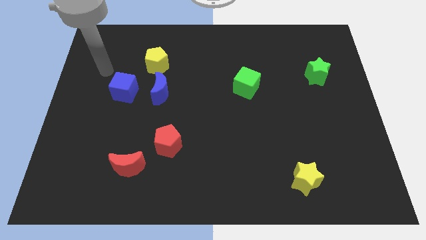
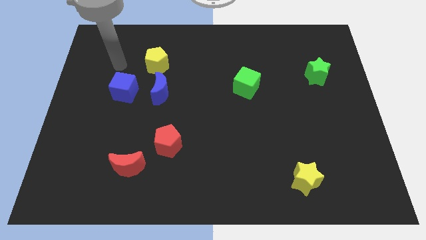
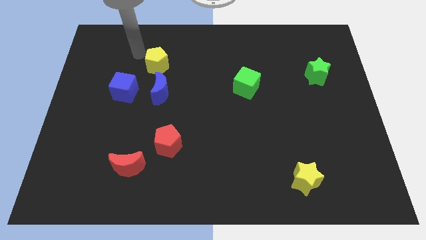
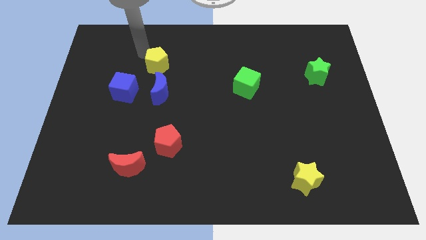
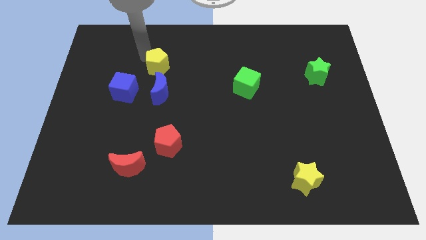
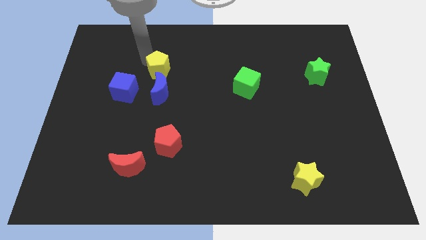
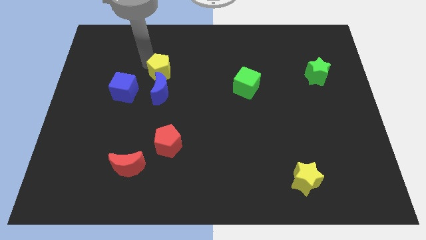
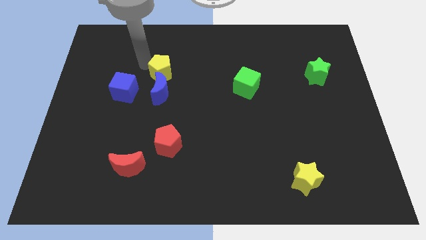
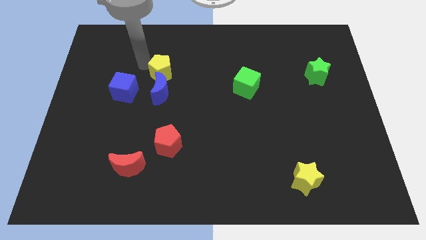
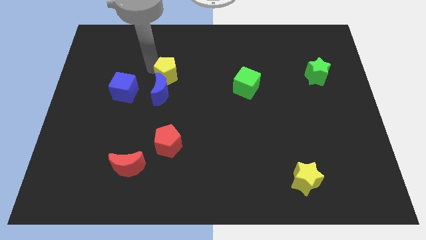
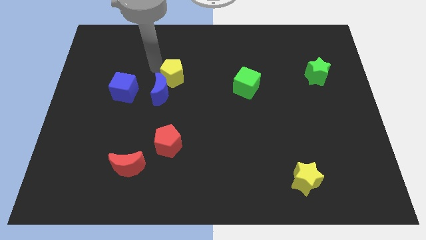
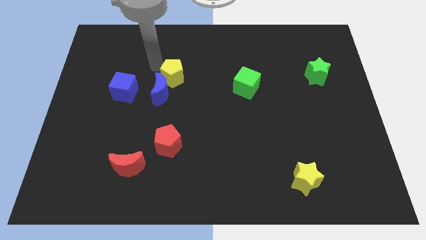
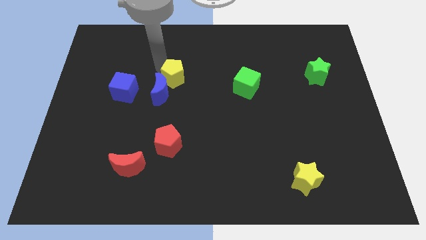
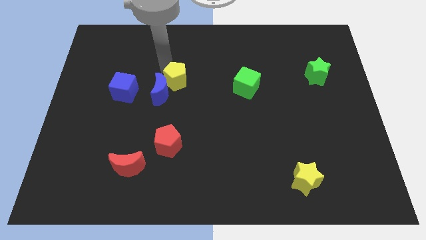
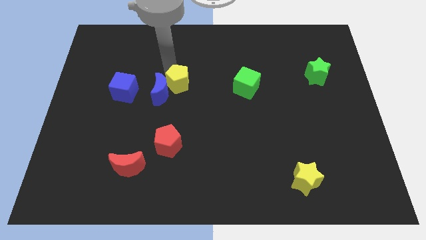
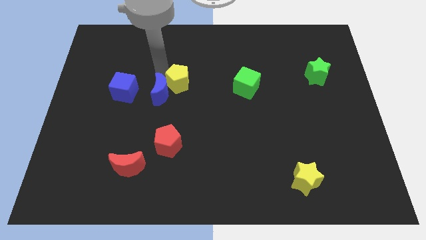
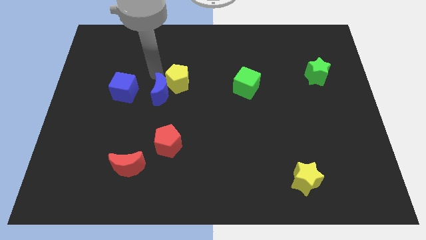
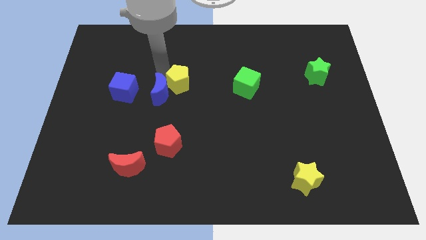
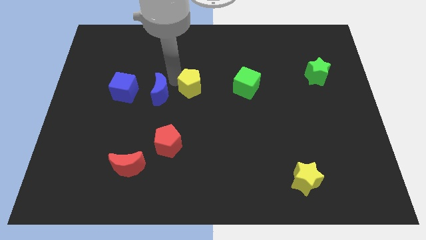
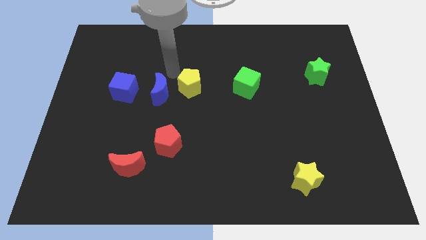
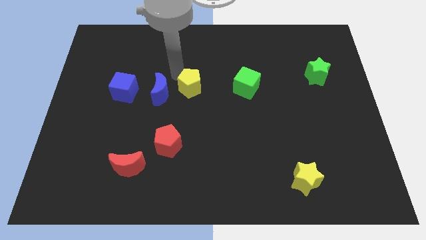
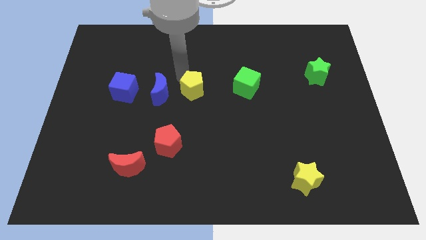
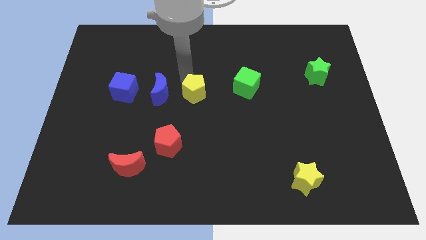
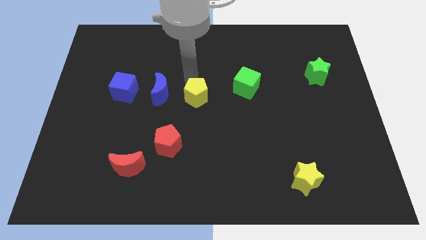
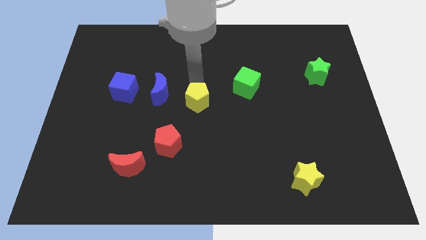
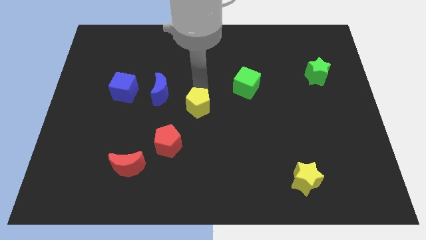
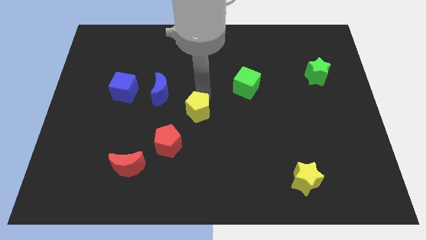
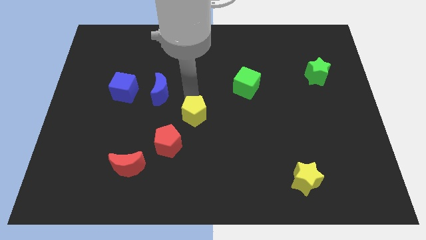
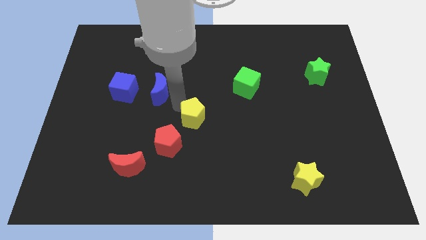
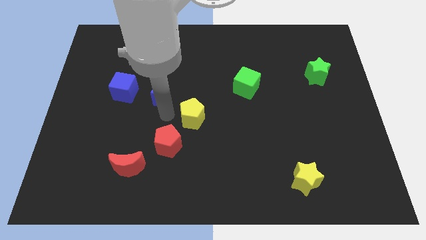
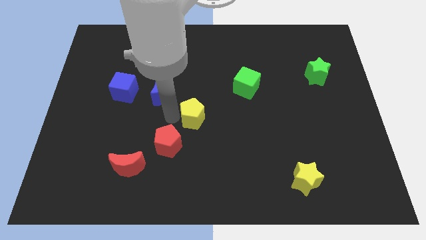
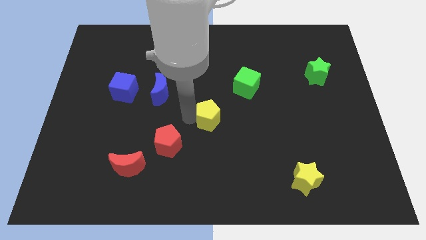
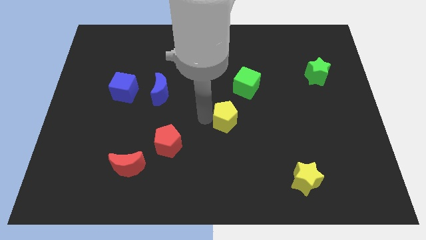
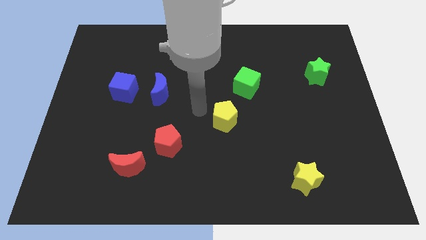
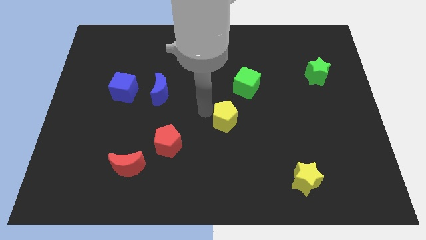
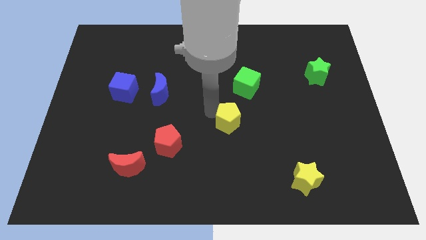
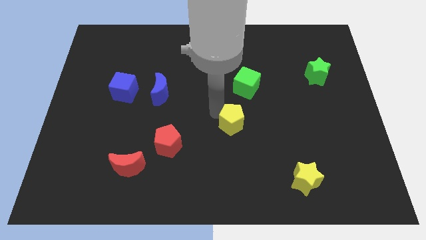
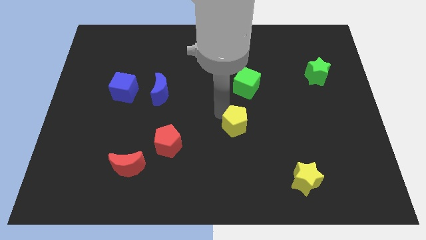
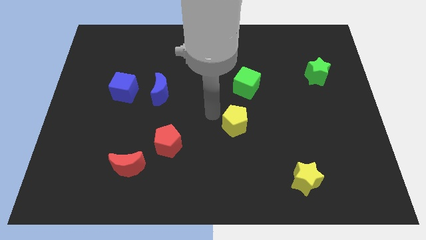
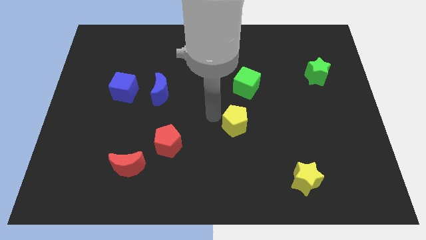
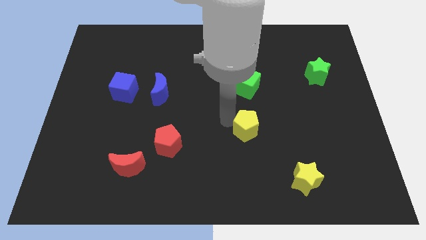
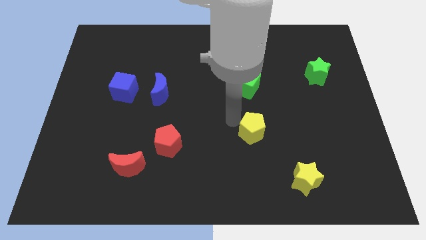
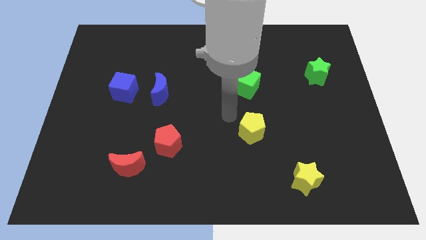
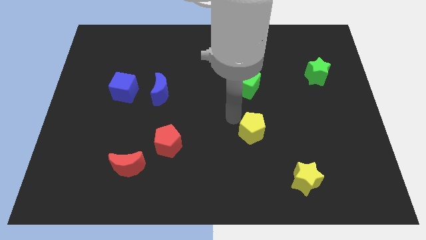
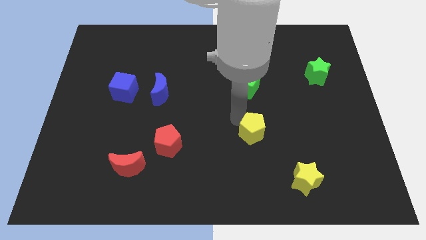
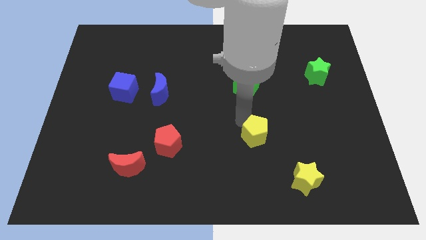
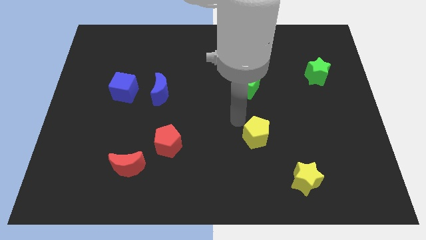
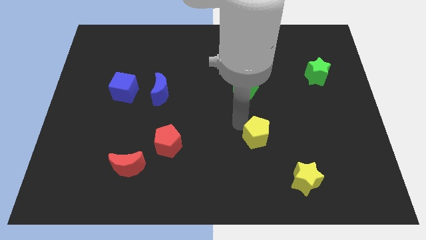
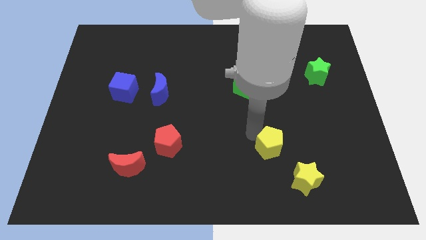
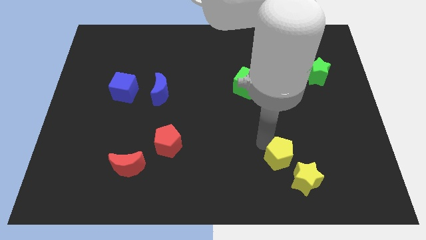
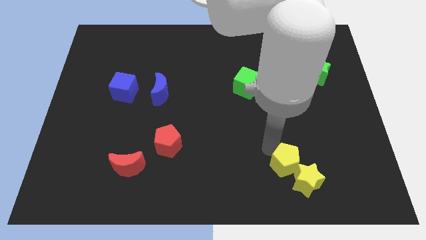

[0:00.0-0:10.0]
move the yellow pentagon to the yellow star

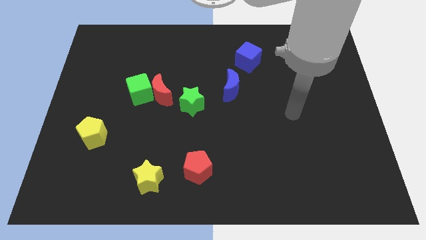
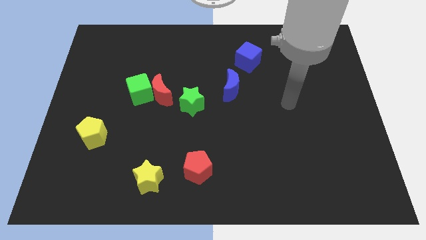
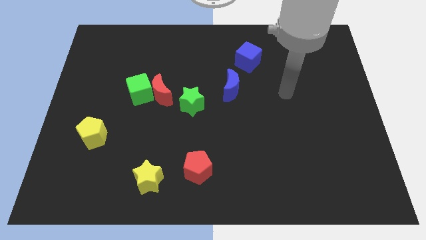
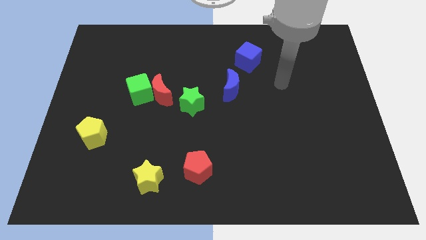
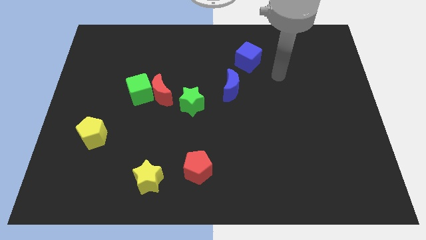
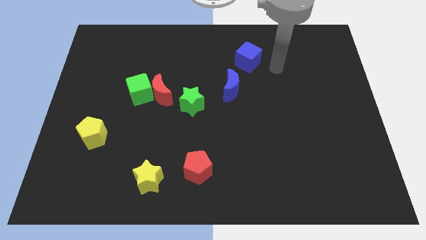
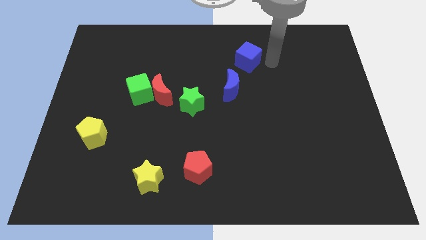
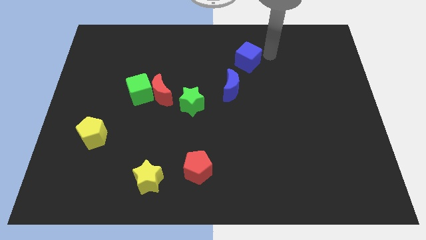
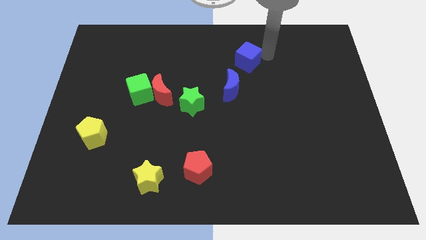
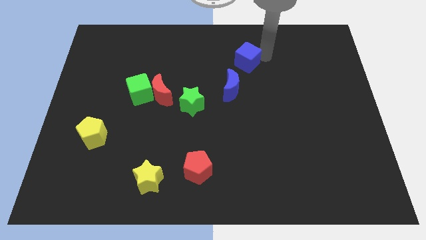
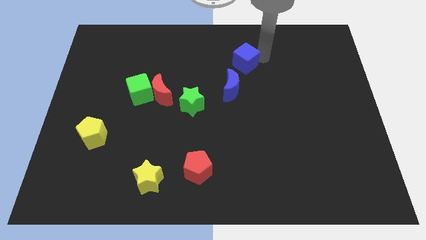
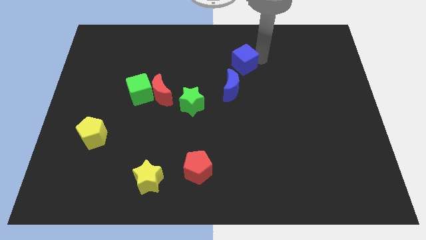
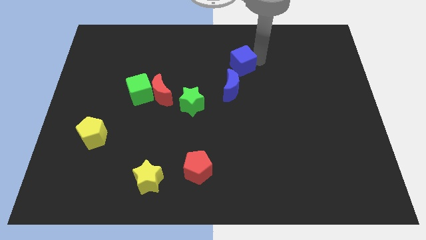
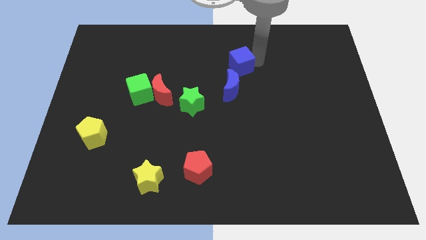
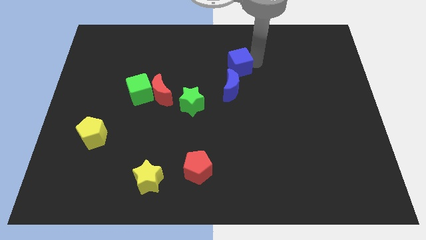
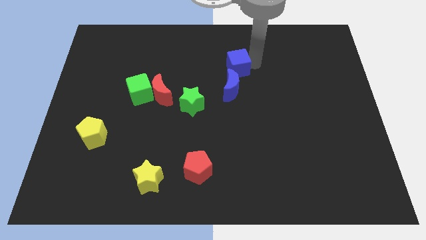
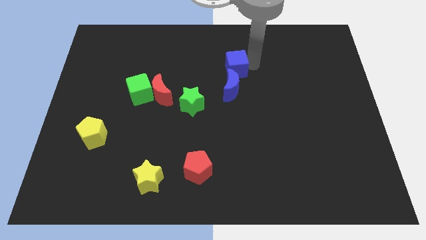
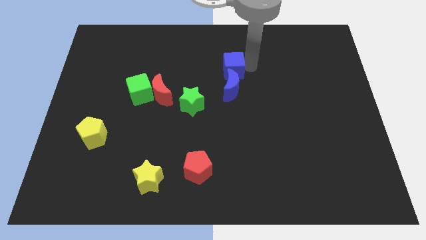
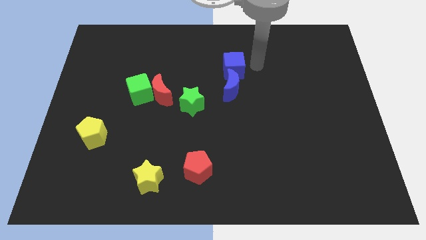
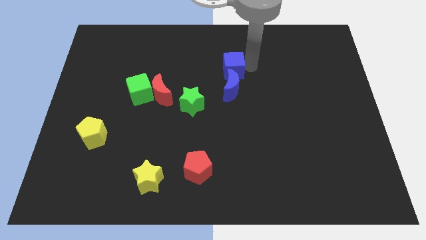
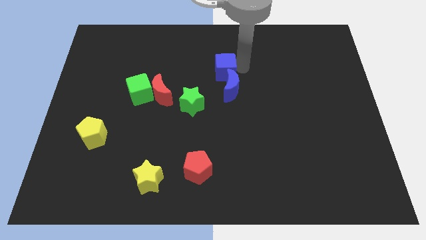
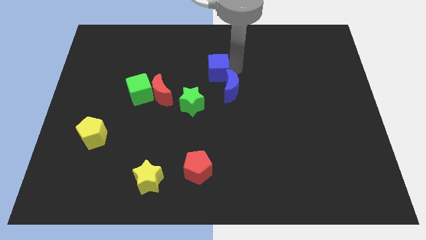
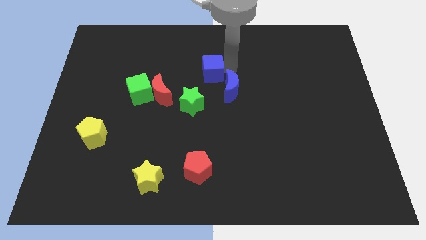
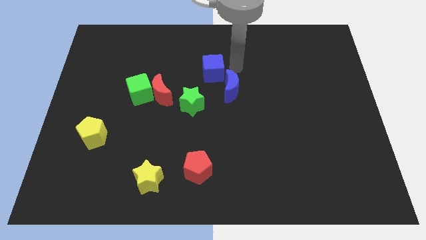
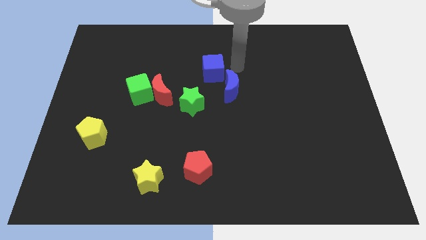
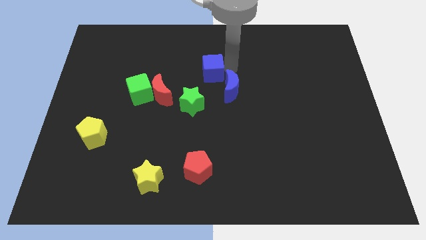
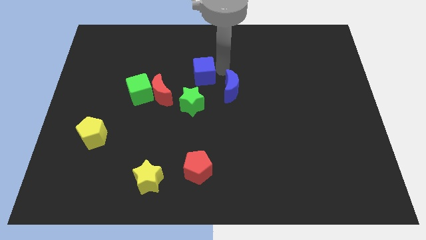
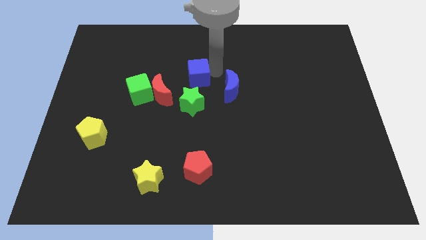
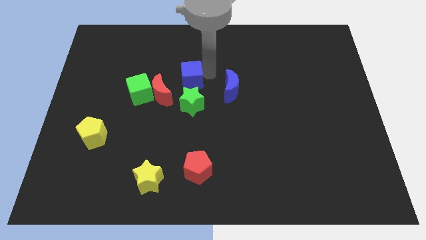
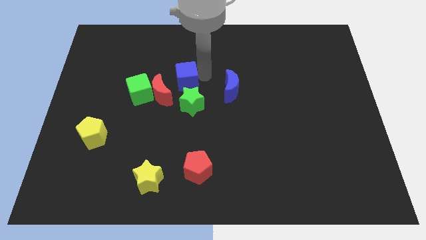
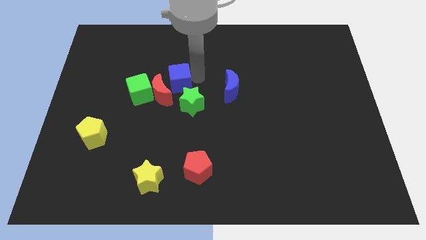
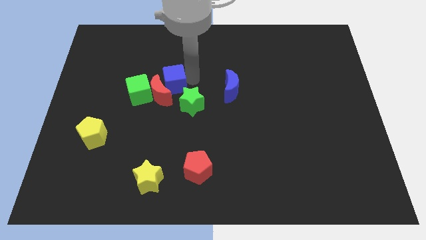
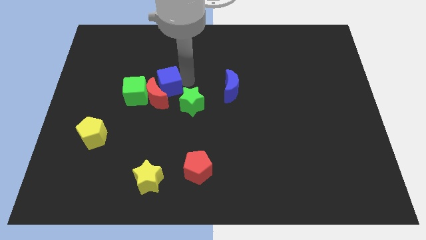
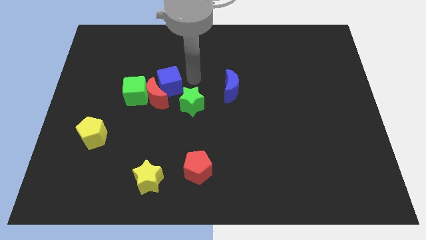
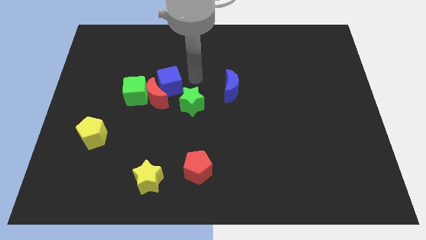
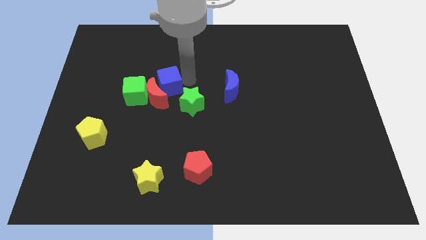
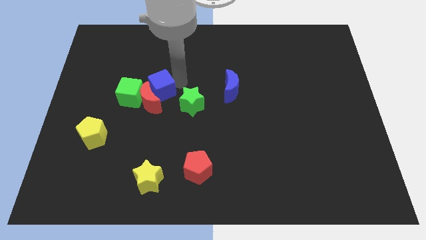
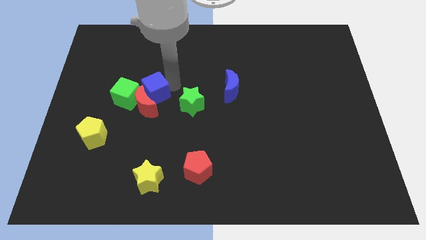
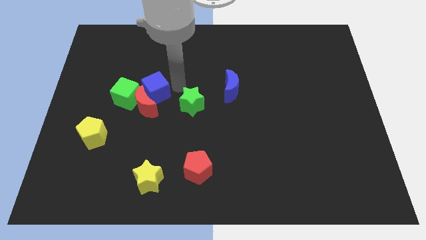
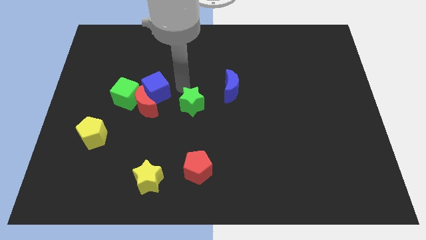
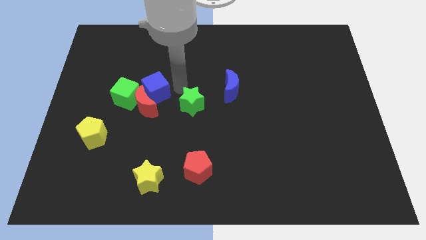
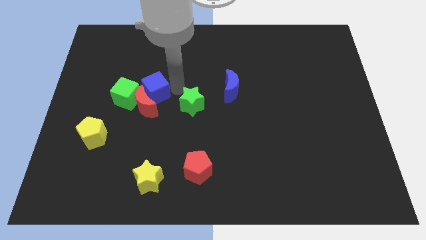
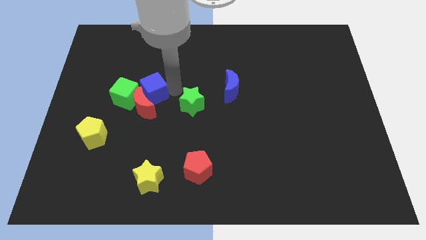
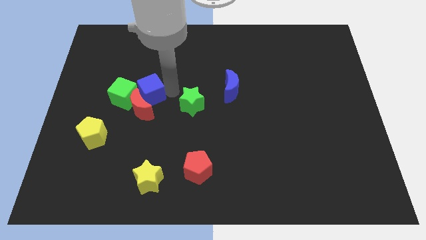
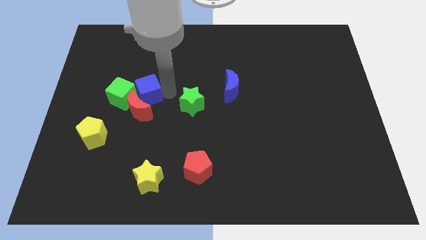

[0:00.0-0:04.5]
move the blue cube next to the green cube
